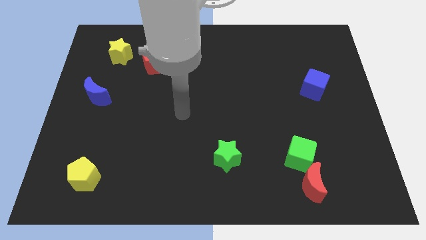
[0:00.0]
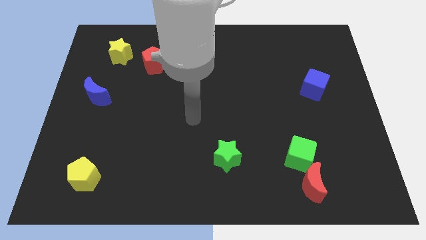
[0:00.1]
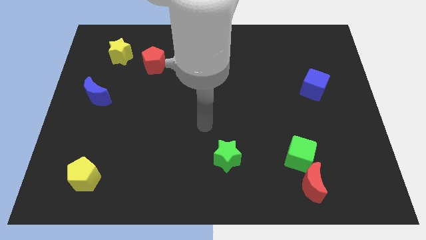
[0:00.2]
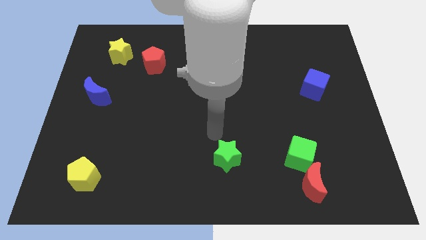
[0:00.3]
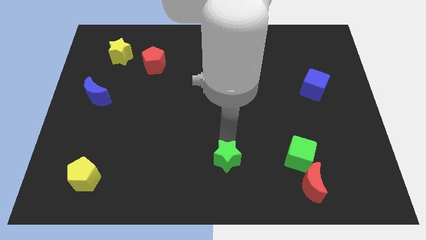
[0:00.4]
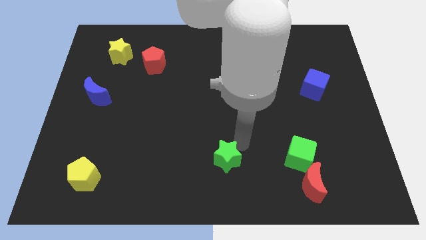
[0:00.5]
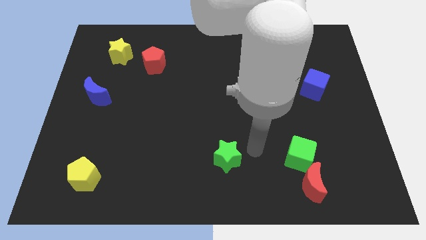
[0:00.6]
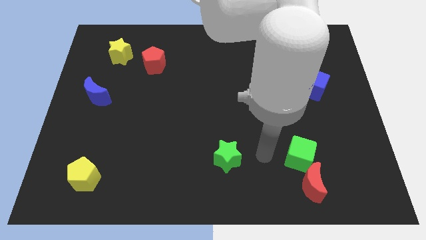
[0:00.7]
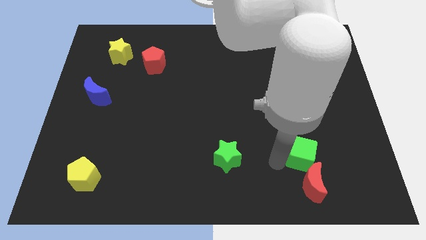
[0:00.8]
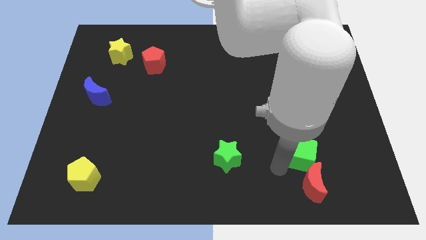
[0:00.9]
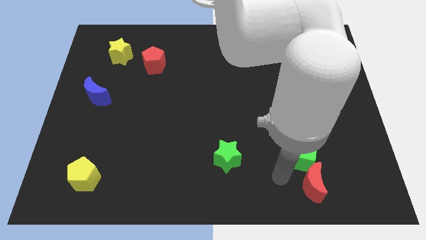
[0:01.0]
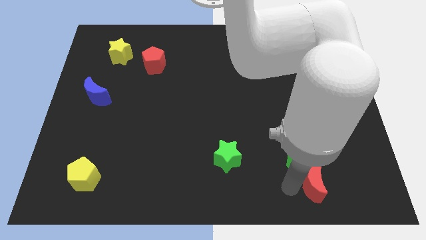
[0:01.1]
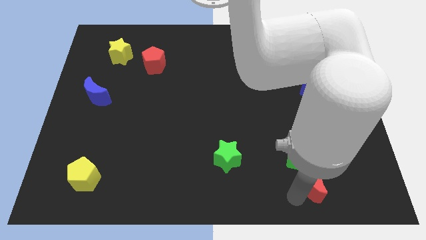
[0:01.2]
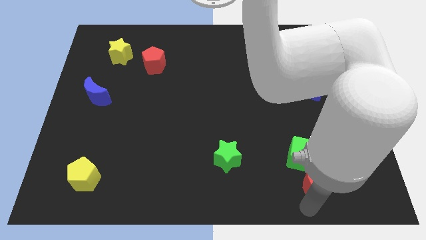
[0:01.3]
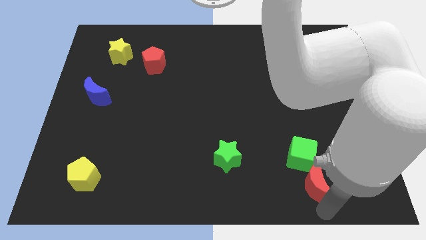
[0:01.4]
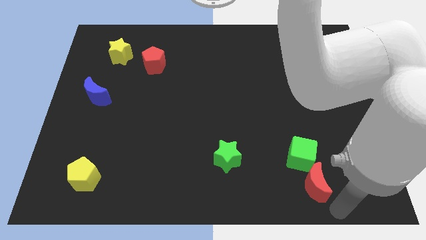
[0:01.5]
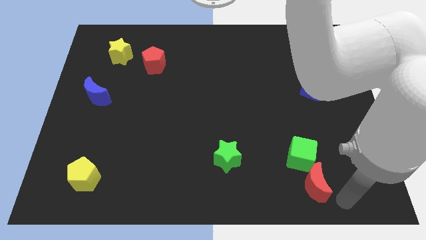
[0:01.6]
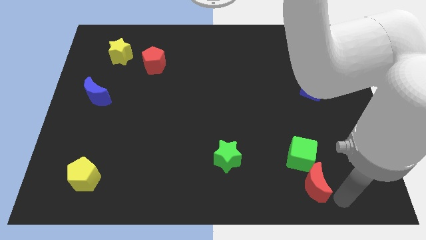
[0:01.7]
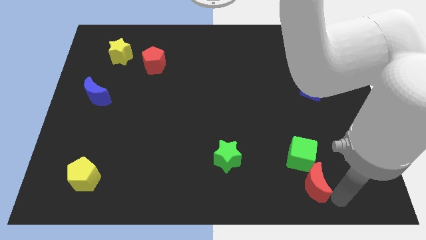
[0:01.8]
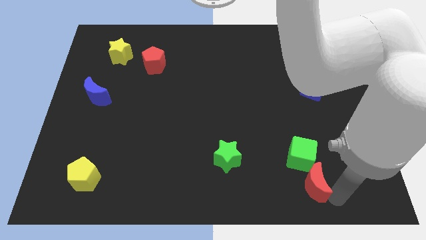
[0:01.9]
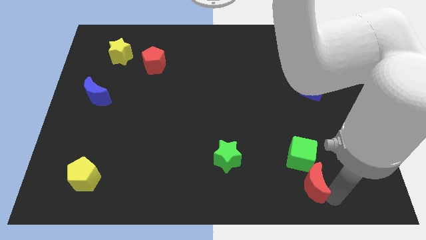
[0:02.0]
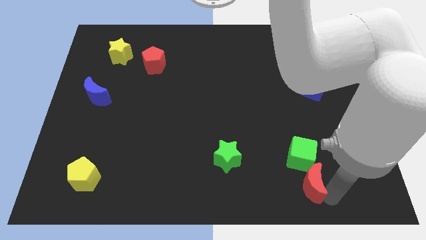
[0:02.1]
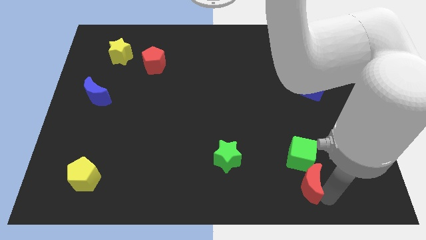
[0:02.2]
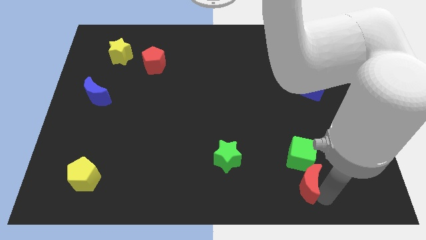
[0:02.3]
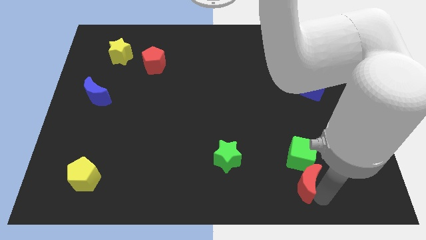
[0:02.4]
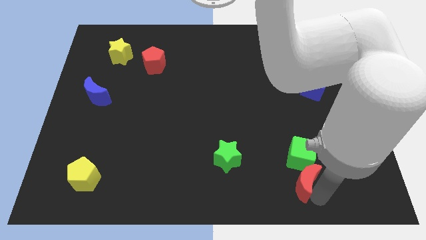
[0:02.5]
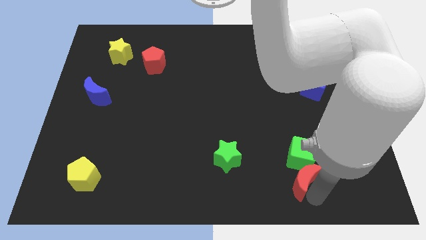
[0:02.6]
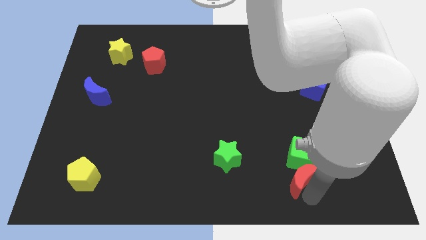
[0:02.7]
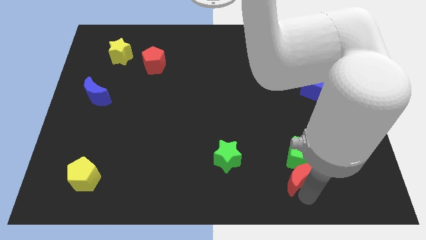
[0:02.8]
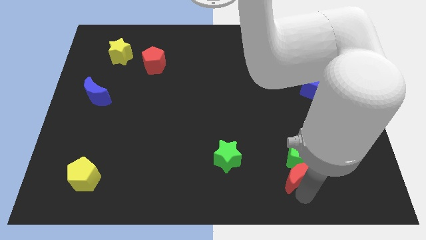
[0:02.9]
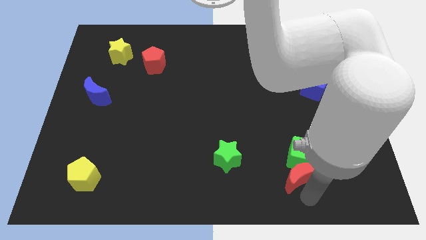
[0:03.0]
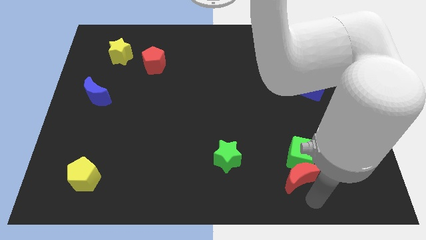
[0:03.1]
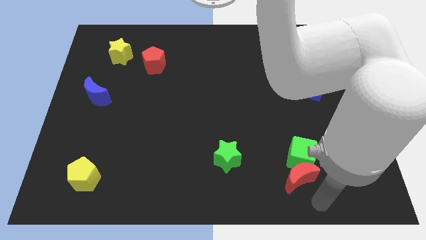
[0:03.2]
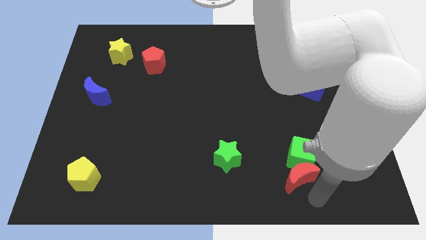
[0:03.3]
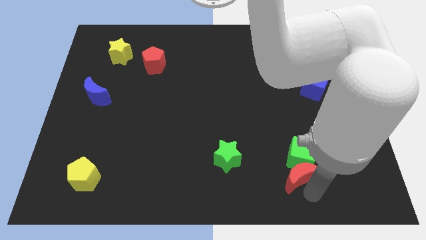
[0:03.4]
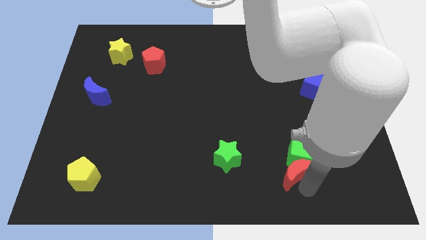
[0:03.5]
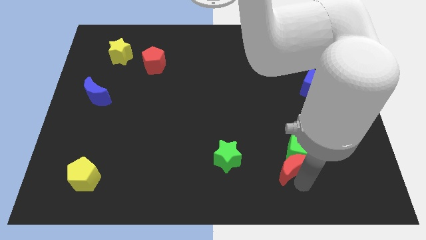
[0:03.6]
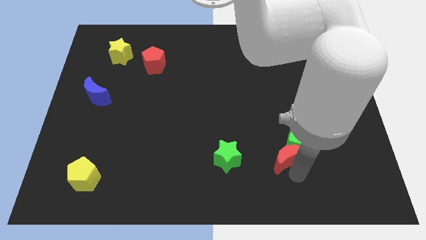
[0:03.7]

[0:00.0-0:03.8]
slide the red moon up and to the left diagonally a little

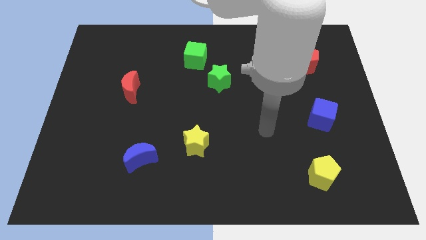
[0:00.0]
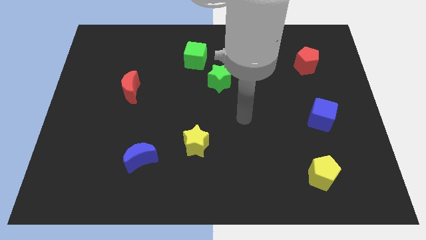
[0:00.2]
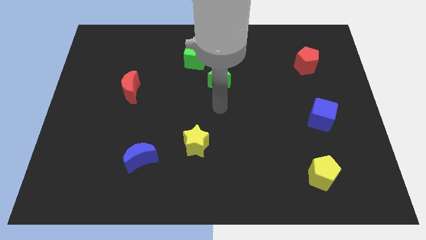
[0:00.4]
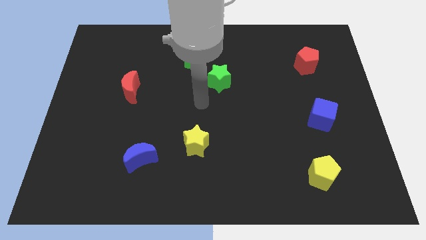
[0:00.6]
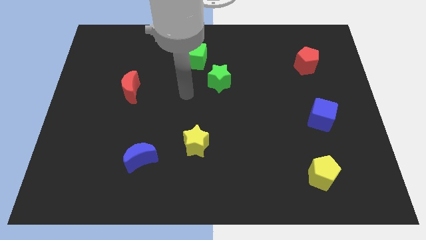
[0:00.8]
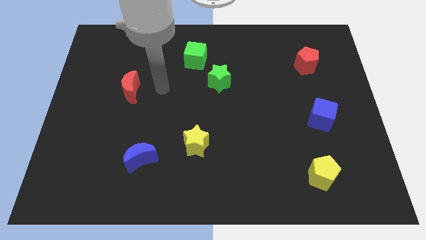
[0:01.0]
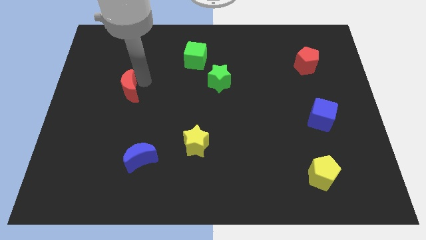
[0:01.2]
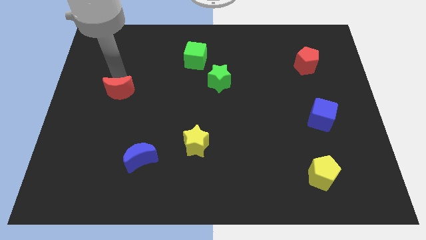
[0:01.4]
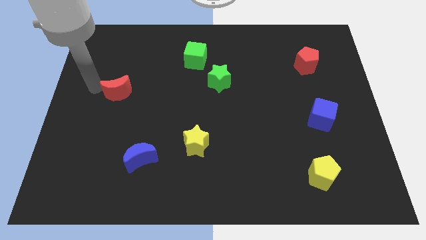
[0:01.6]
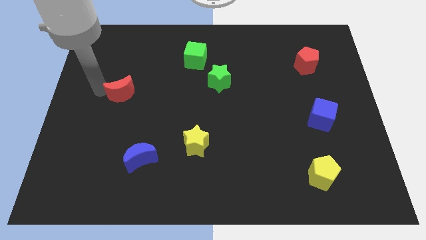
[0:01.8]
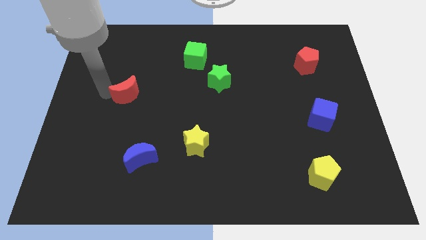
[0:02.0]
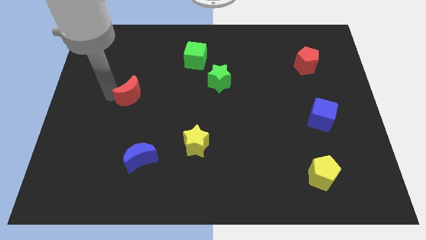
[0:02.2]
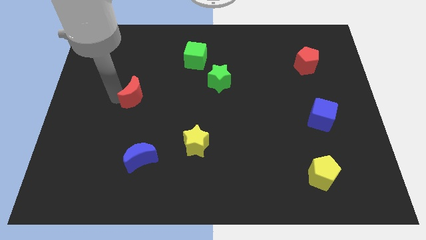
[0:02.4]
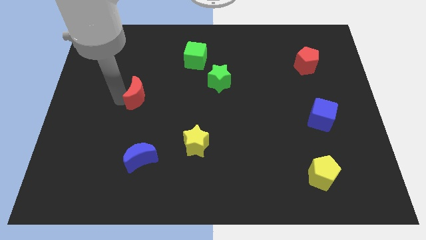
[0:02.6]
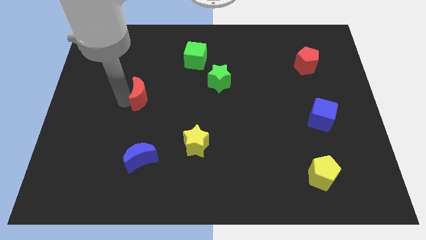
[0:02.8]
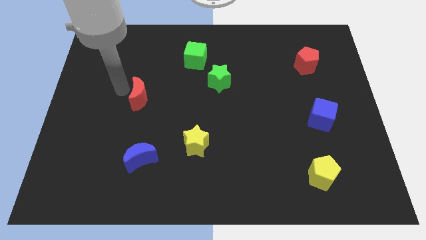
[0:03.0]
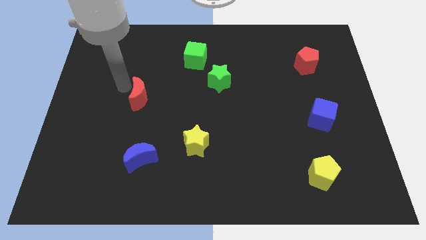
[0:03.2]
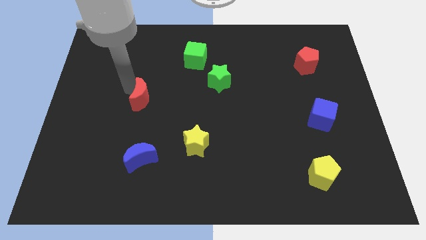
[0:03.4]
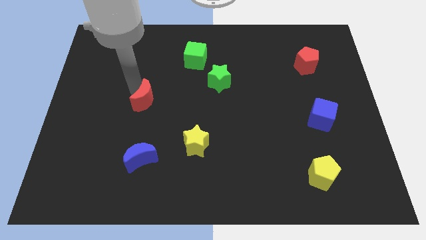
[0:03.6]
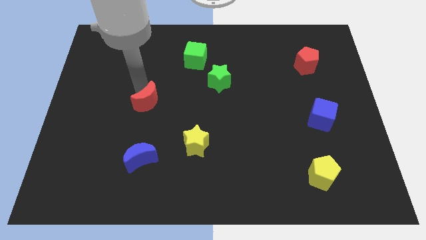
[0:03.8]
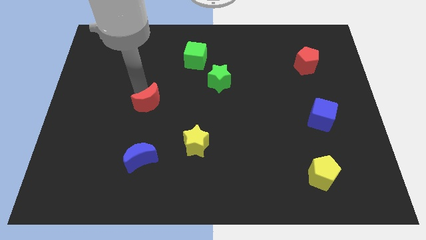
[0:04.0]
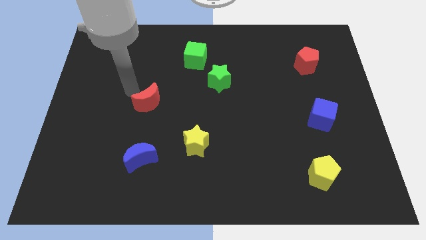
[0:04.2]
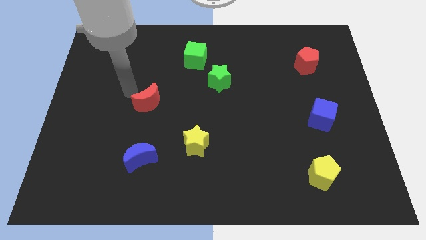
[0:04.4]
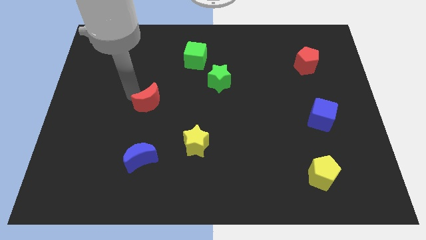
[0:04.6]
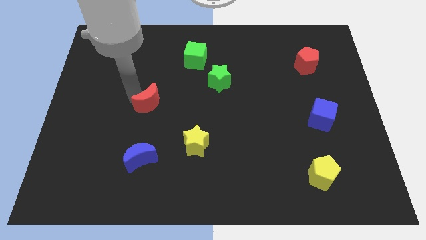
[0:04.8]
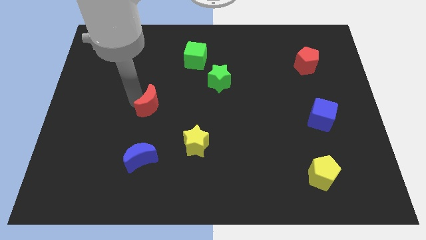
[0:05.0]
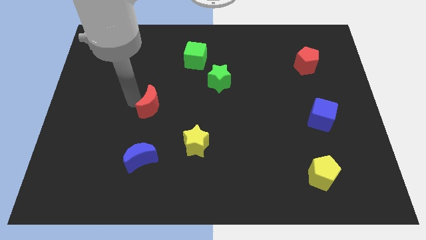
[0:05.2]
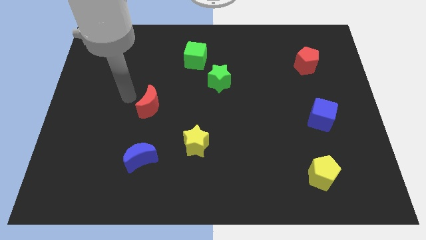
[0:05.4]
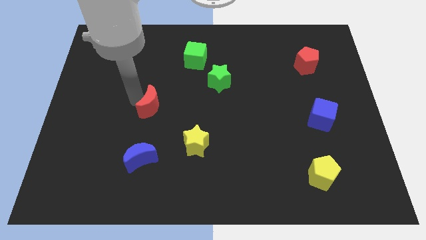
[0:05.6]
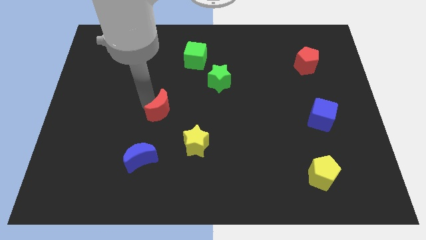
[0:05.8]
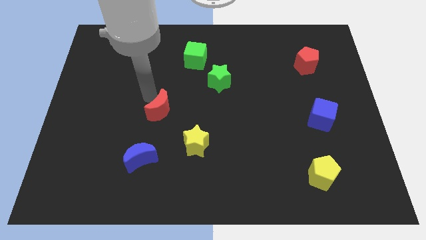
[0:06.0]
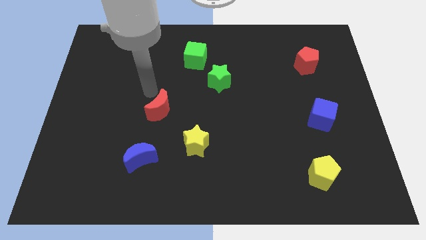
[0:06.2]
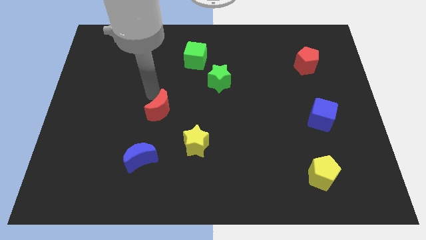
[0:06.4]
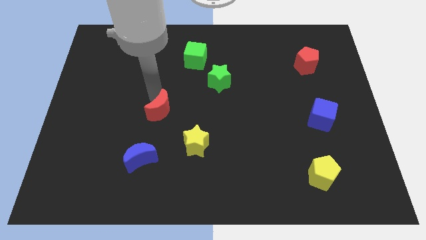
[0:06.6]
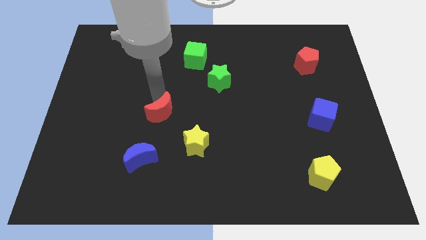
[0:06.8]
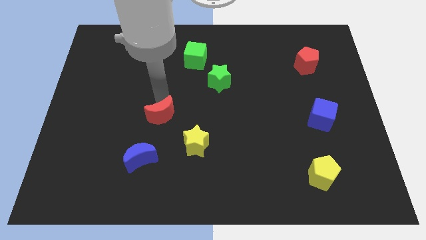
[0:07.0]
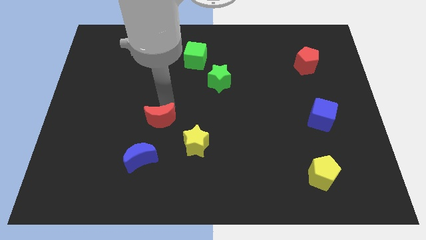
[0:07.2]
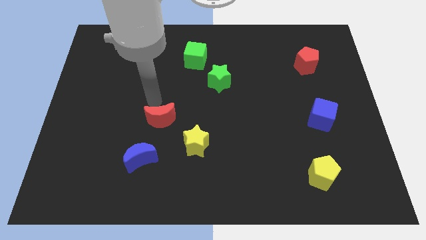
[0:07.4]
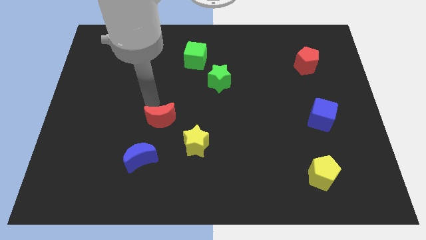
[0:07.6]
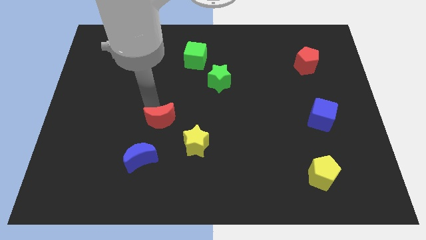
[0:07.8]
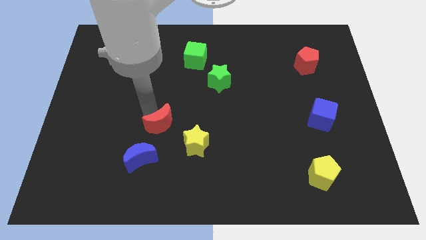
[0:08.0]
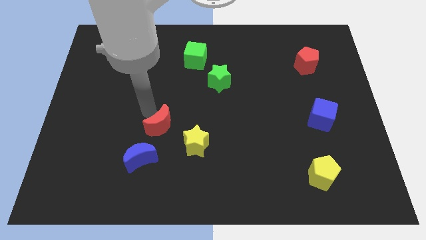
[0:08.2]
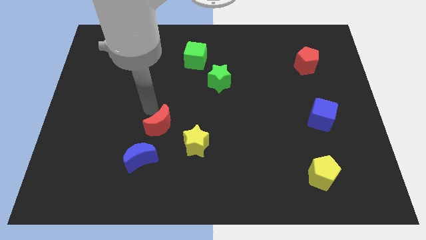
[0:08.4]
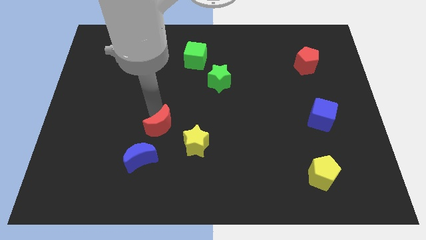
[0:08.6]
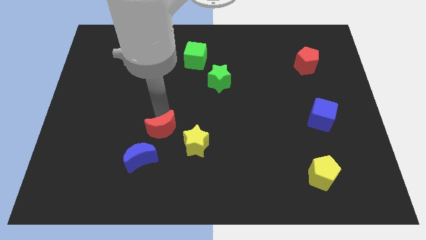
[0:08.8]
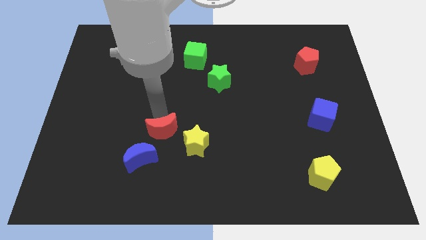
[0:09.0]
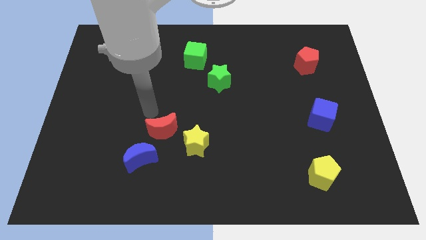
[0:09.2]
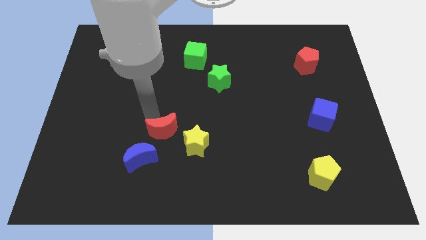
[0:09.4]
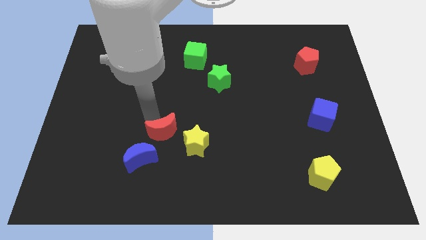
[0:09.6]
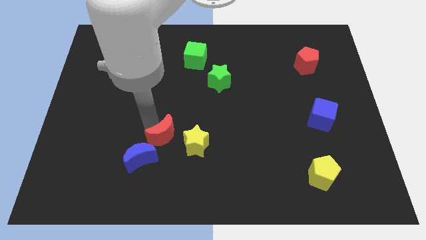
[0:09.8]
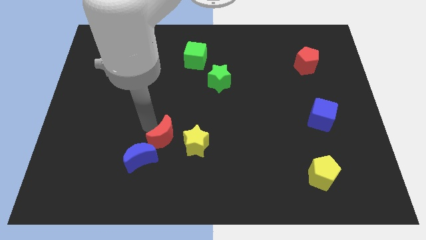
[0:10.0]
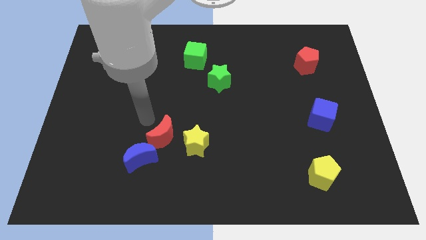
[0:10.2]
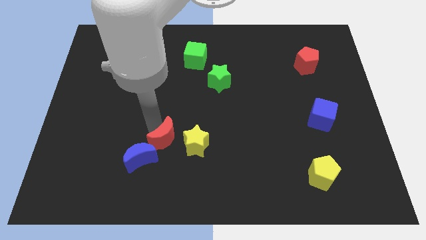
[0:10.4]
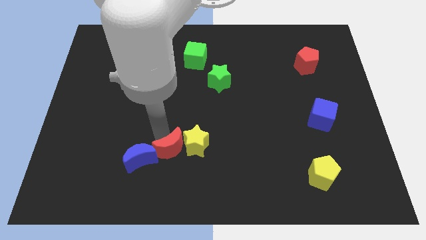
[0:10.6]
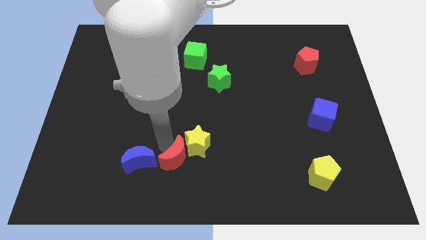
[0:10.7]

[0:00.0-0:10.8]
move the red moon down and right diagonally
